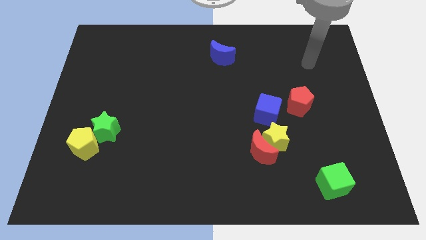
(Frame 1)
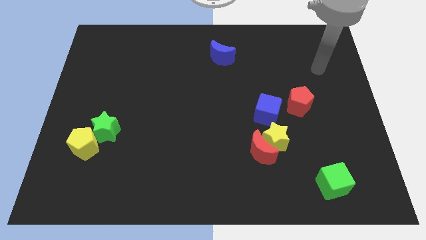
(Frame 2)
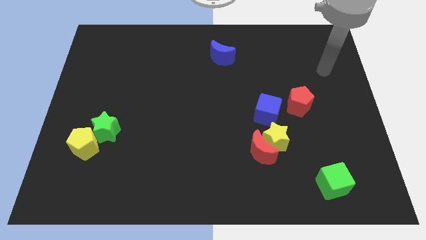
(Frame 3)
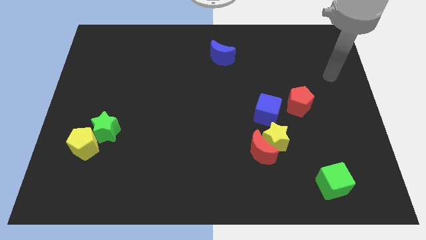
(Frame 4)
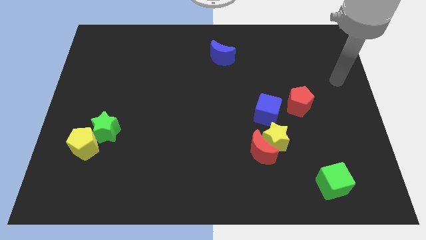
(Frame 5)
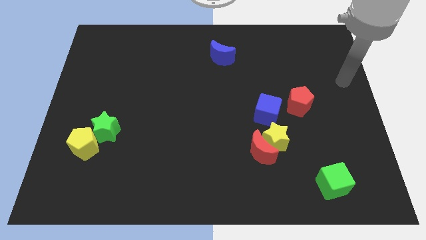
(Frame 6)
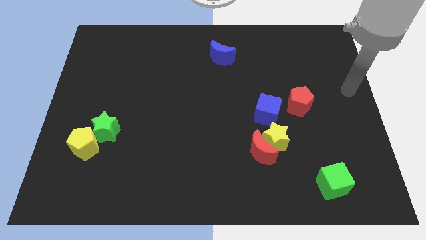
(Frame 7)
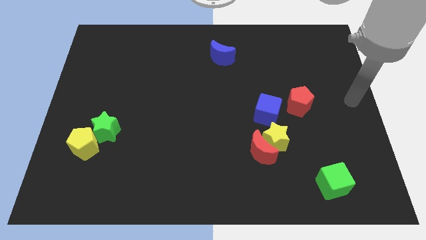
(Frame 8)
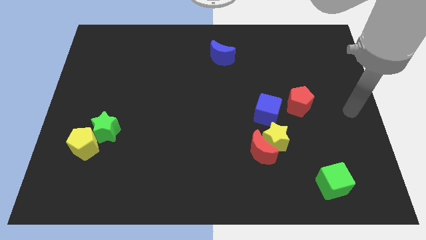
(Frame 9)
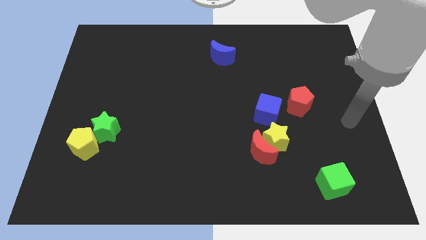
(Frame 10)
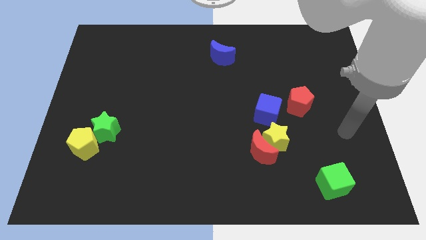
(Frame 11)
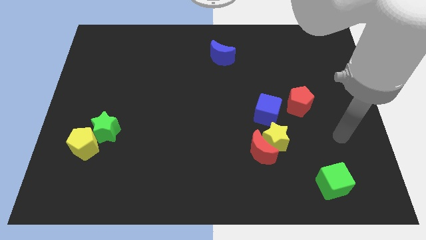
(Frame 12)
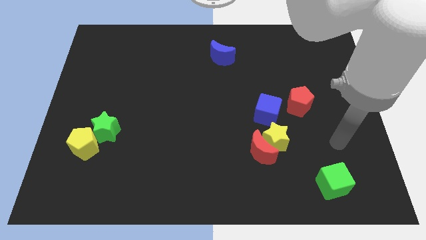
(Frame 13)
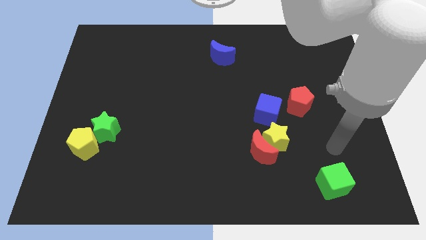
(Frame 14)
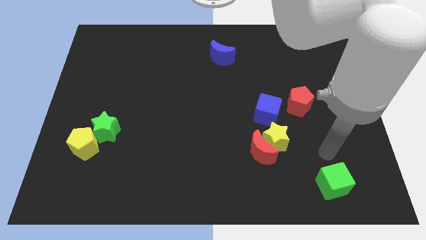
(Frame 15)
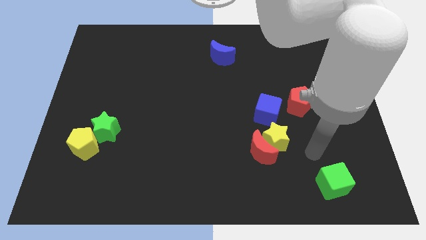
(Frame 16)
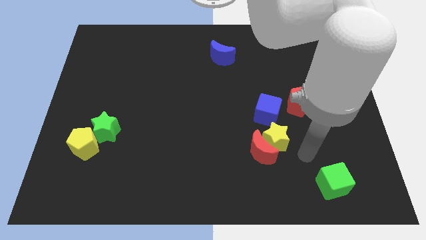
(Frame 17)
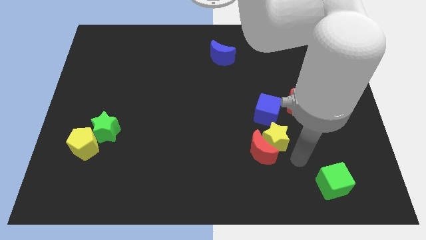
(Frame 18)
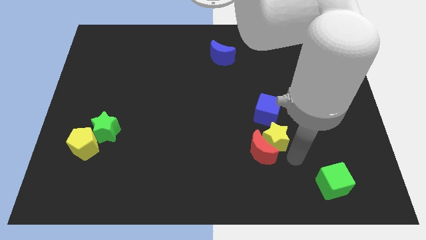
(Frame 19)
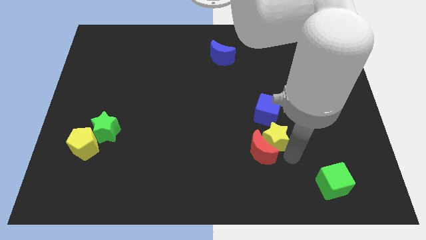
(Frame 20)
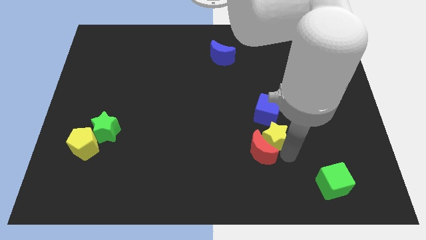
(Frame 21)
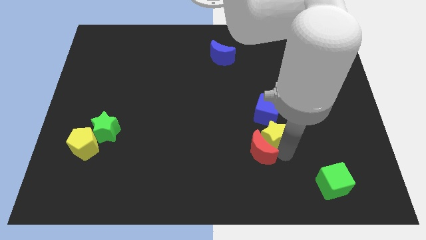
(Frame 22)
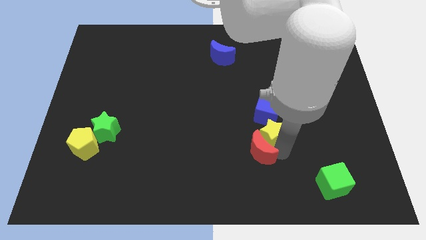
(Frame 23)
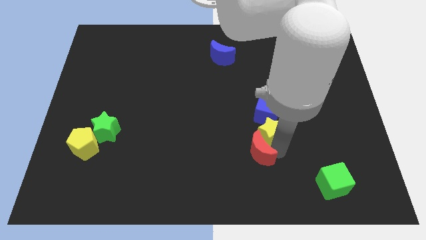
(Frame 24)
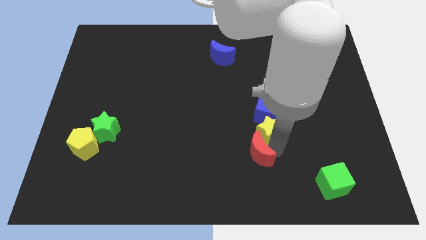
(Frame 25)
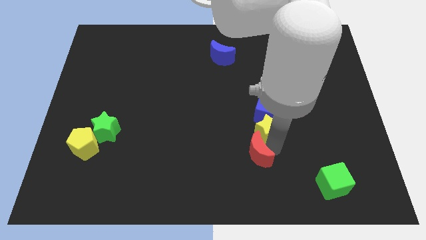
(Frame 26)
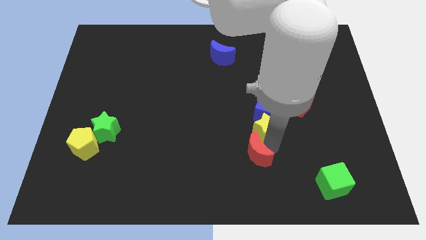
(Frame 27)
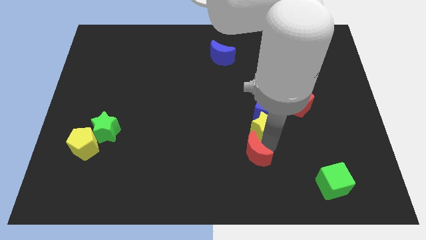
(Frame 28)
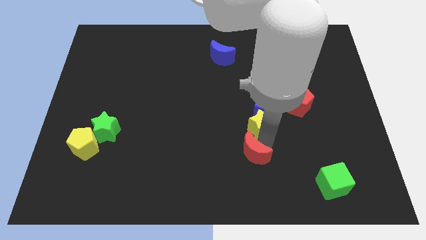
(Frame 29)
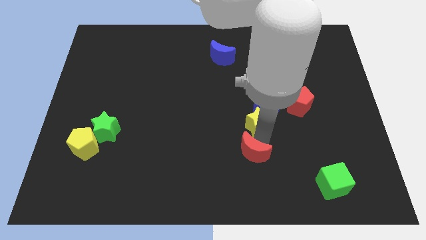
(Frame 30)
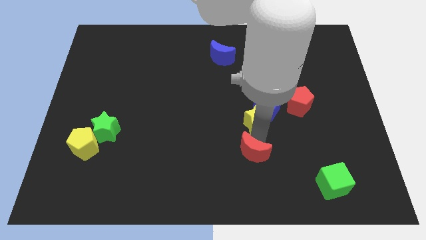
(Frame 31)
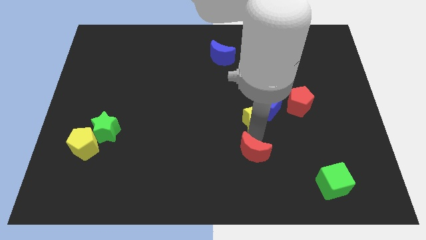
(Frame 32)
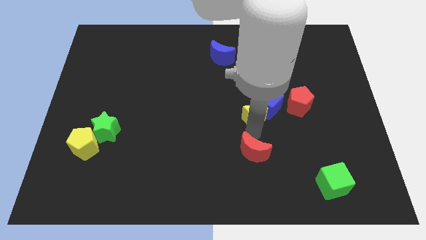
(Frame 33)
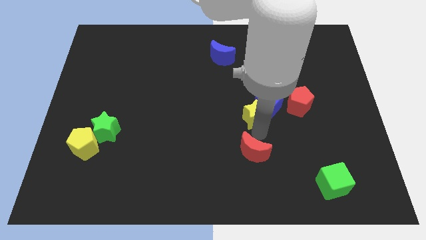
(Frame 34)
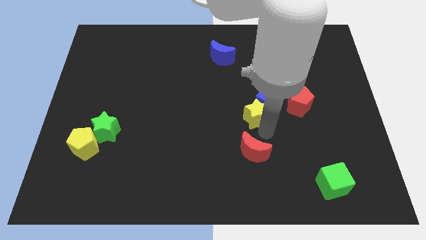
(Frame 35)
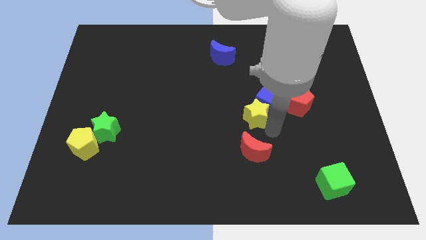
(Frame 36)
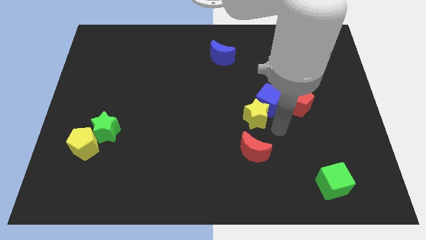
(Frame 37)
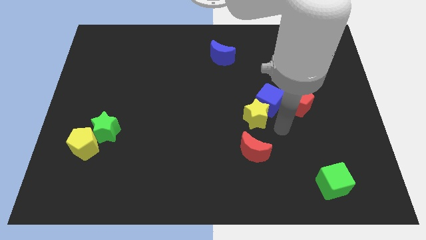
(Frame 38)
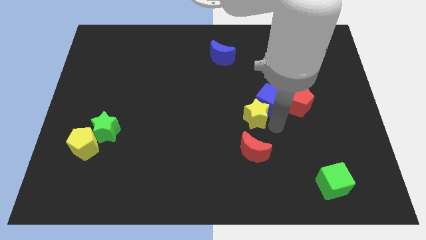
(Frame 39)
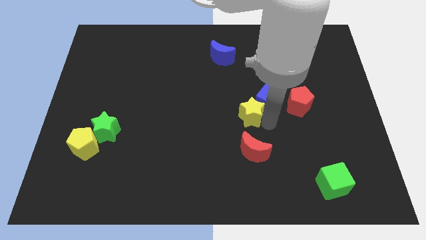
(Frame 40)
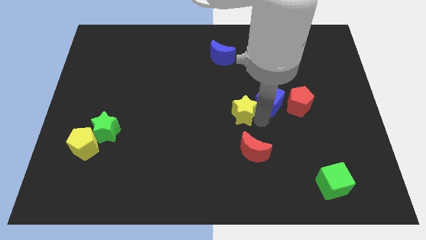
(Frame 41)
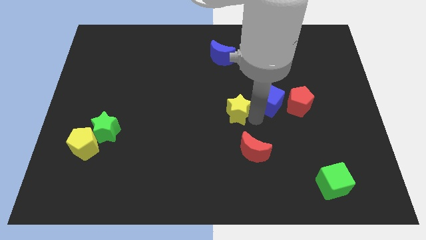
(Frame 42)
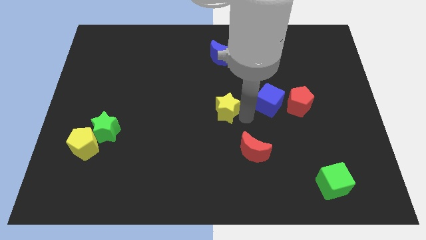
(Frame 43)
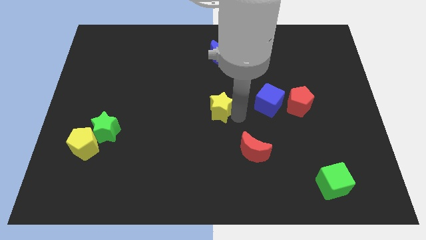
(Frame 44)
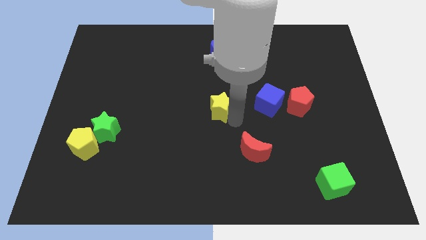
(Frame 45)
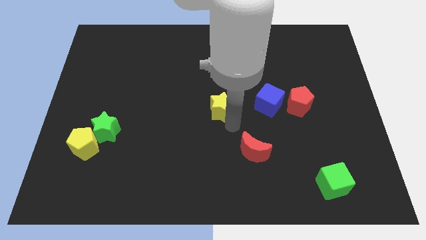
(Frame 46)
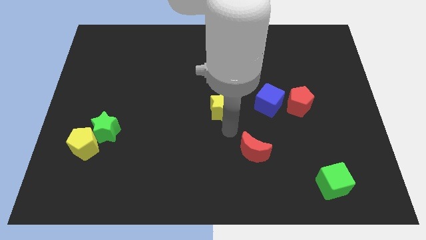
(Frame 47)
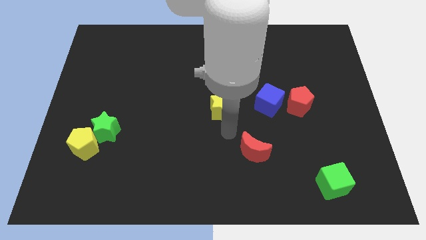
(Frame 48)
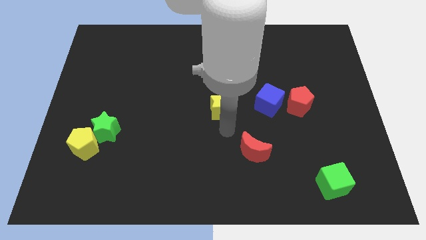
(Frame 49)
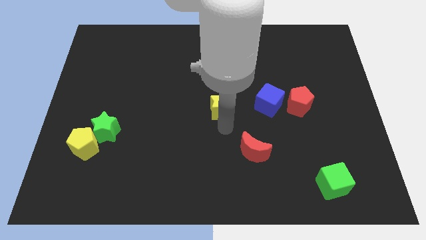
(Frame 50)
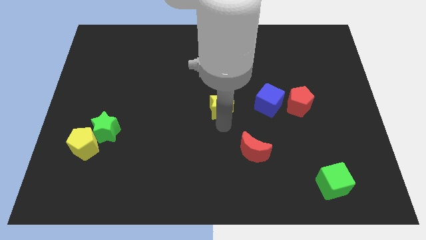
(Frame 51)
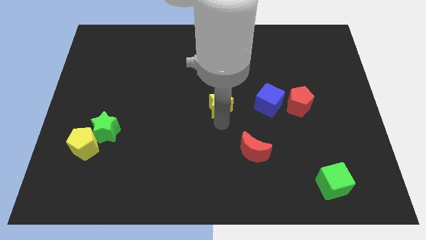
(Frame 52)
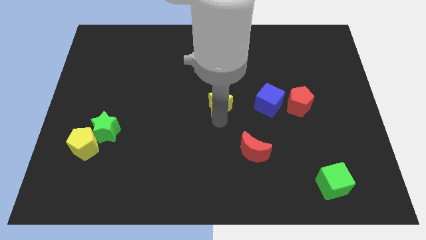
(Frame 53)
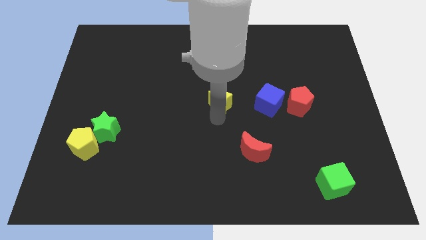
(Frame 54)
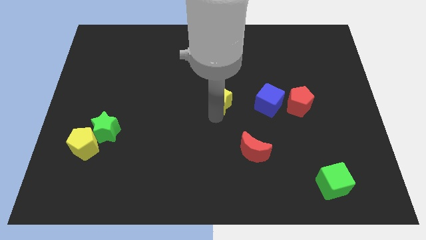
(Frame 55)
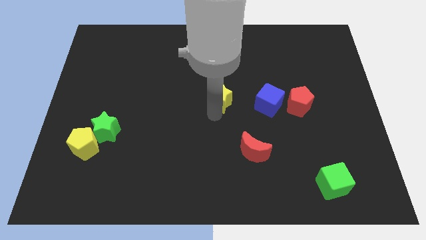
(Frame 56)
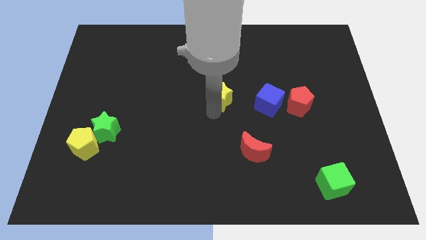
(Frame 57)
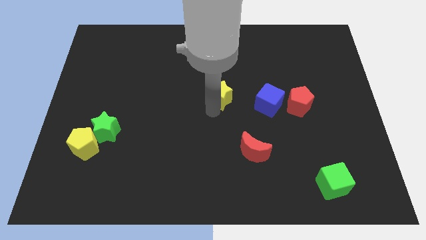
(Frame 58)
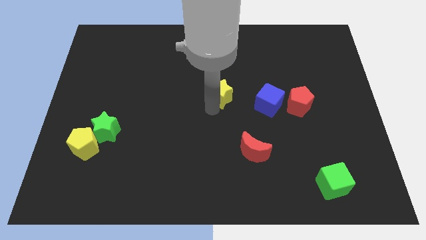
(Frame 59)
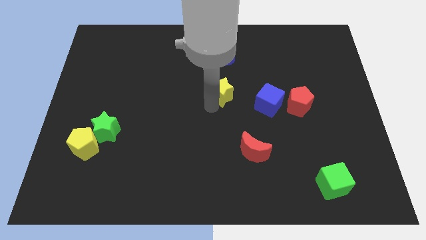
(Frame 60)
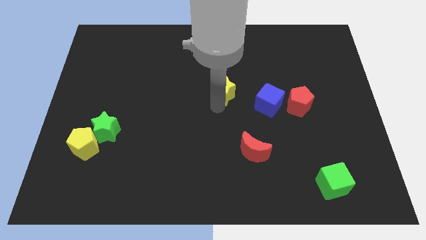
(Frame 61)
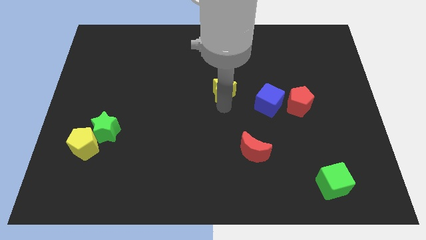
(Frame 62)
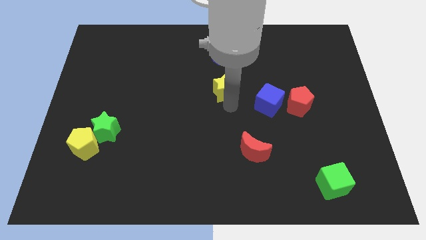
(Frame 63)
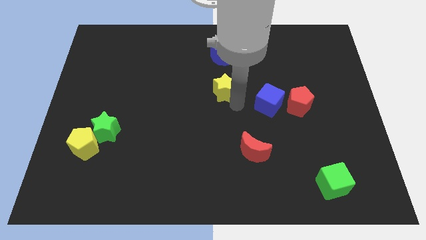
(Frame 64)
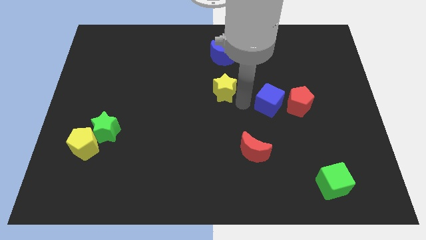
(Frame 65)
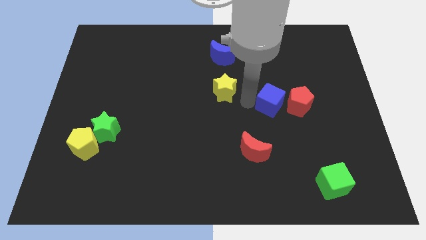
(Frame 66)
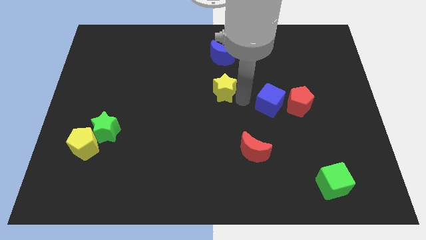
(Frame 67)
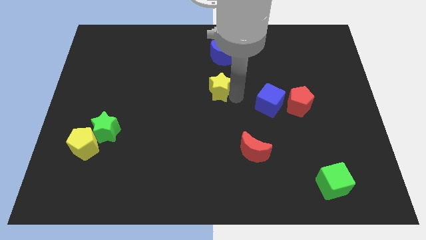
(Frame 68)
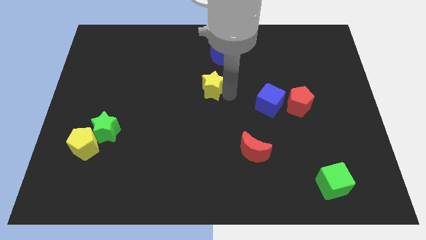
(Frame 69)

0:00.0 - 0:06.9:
move the yellow star diagonally upwards and left

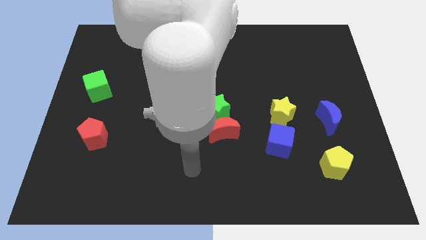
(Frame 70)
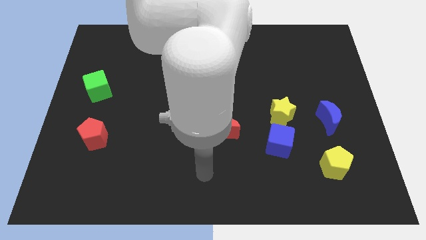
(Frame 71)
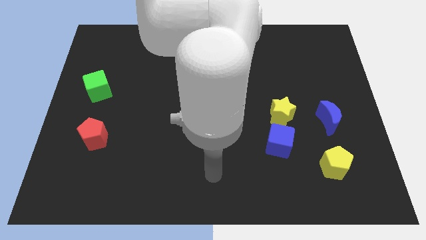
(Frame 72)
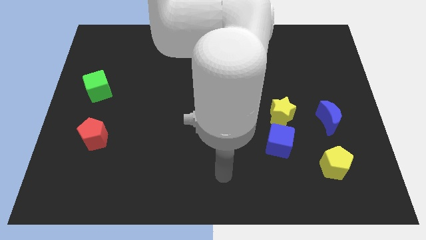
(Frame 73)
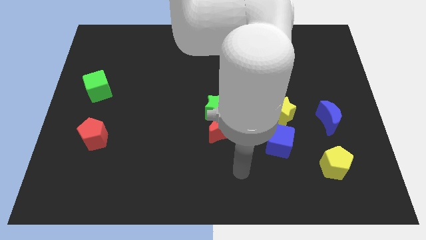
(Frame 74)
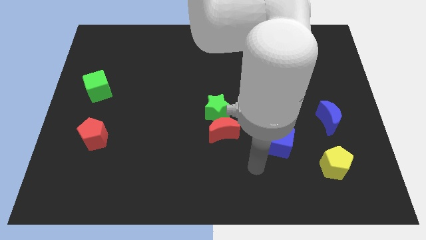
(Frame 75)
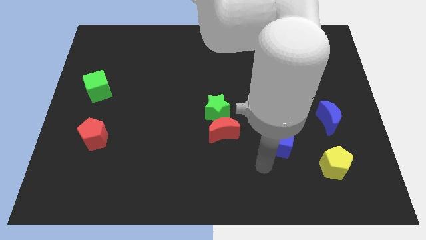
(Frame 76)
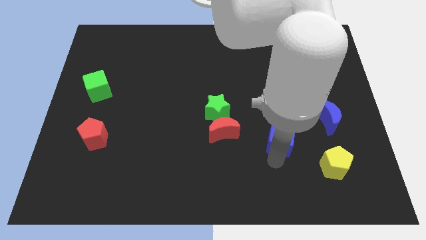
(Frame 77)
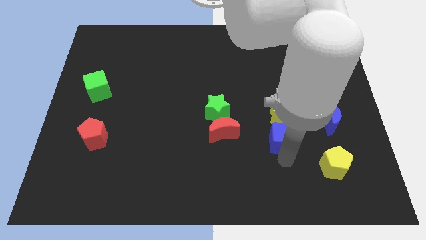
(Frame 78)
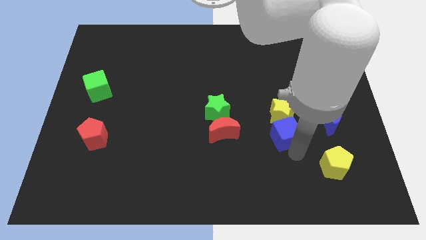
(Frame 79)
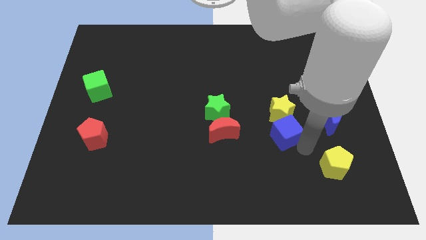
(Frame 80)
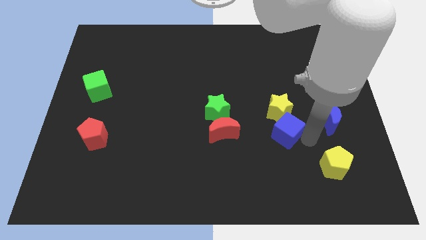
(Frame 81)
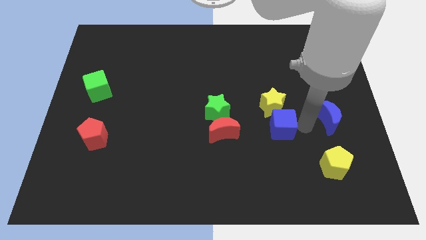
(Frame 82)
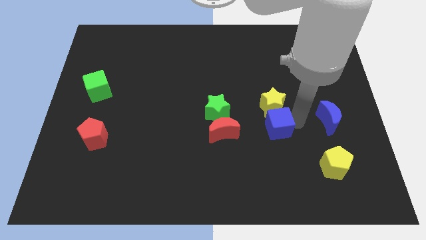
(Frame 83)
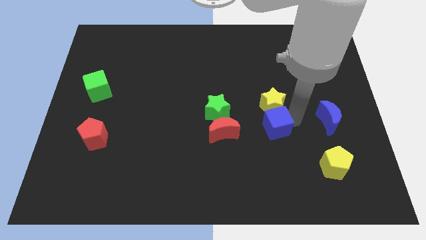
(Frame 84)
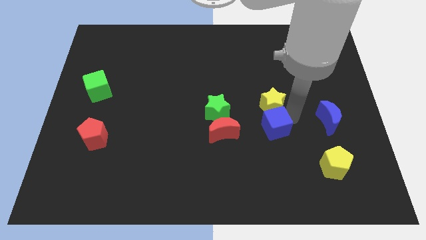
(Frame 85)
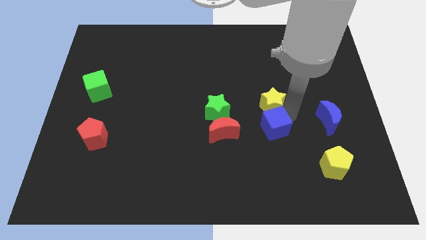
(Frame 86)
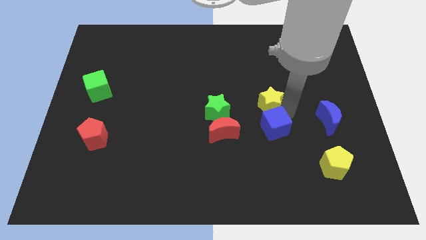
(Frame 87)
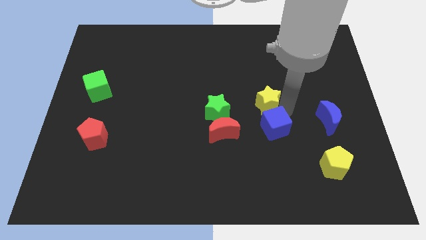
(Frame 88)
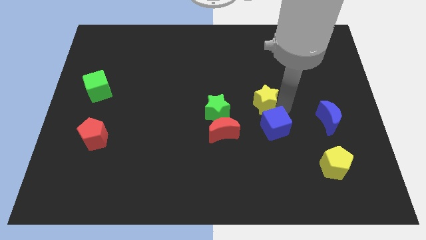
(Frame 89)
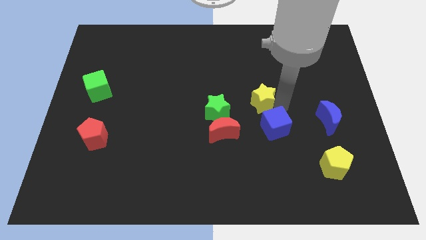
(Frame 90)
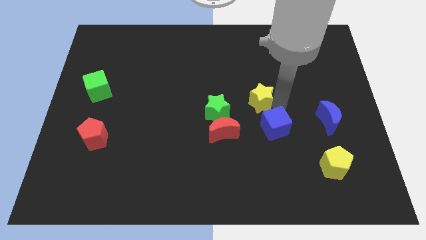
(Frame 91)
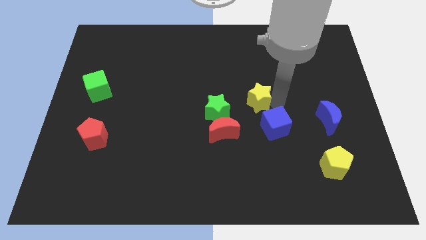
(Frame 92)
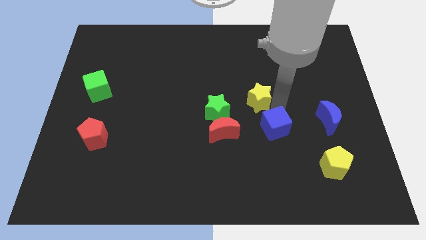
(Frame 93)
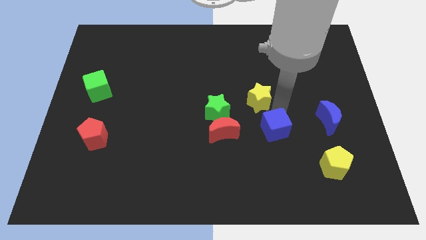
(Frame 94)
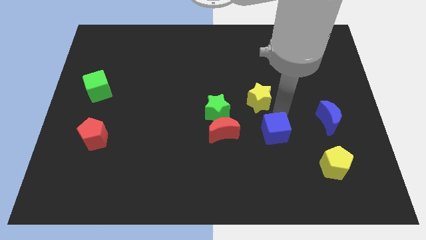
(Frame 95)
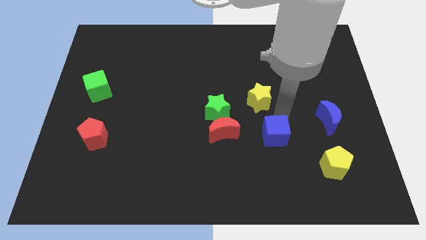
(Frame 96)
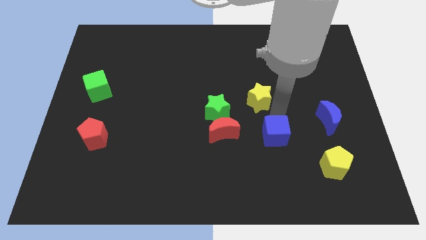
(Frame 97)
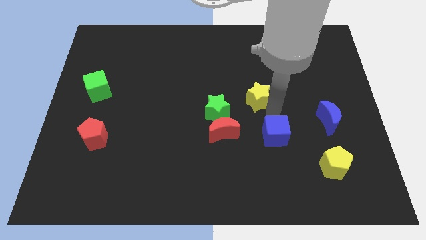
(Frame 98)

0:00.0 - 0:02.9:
slightly push the yellow star upwards and then to the left
